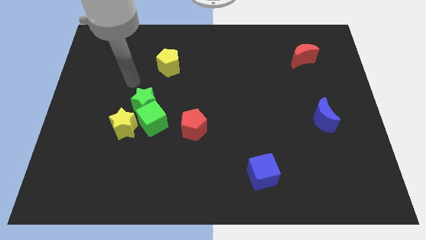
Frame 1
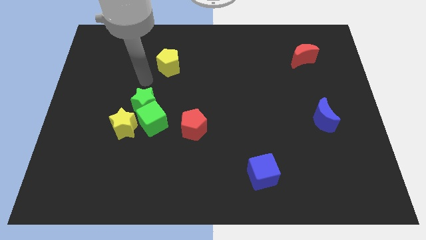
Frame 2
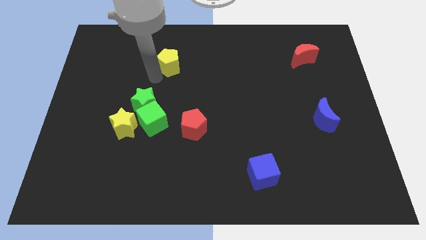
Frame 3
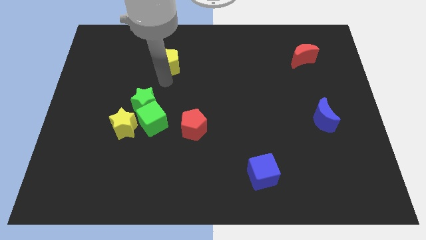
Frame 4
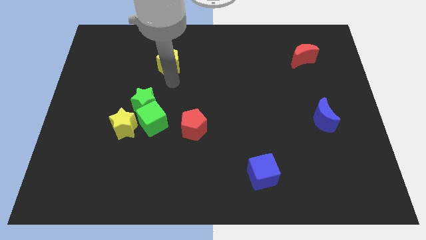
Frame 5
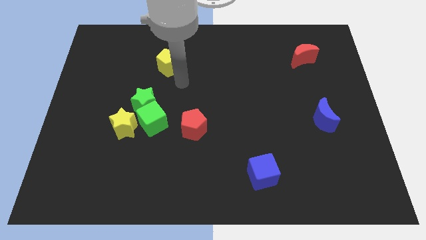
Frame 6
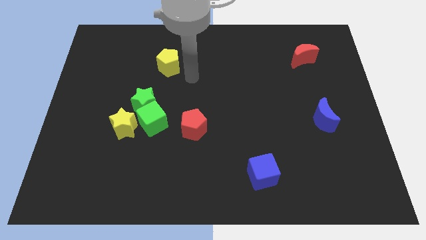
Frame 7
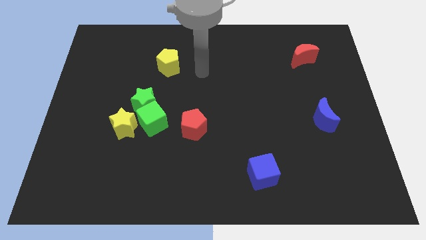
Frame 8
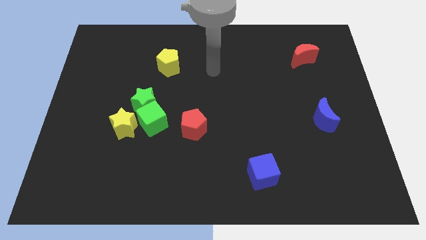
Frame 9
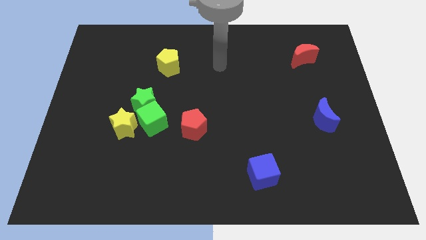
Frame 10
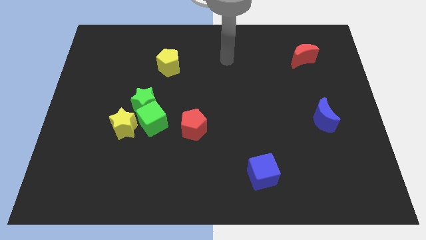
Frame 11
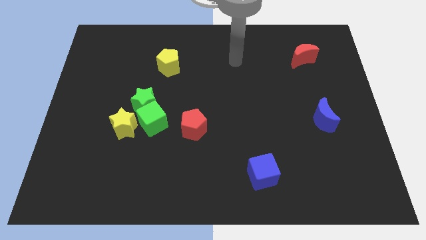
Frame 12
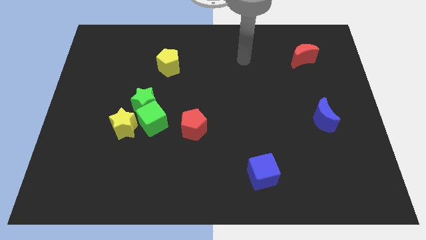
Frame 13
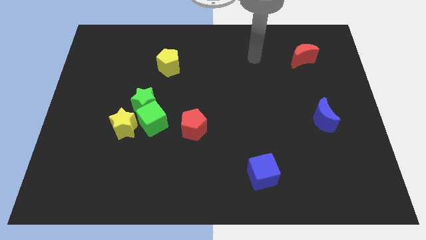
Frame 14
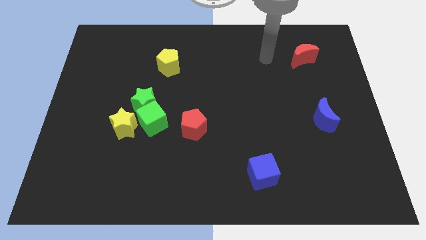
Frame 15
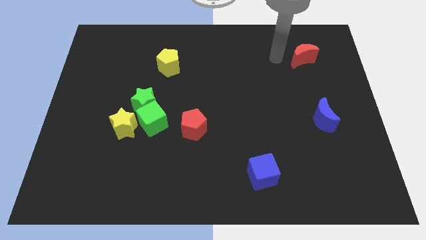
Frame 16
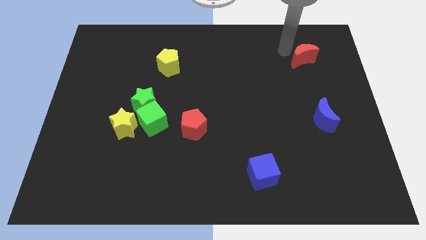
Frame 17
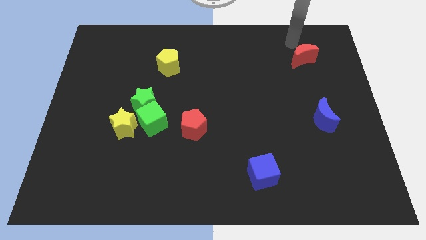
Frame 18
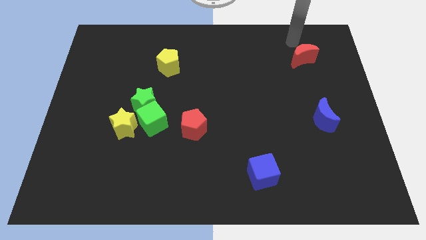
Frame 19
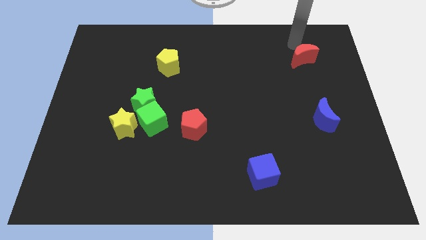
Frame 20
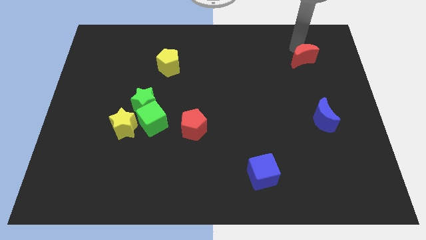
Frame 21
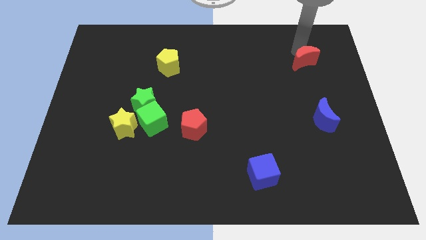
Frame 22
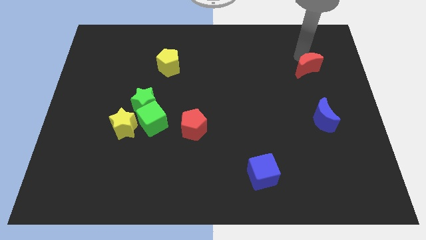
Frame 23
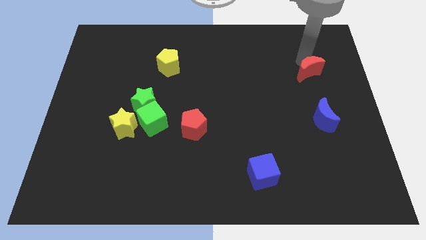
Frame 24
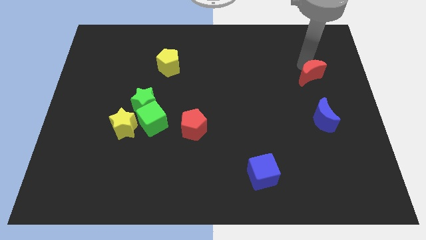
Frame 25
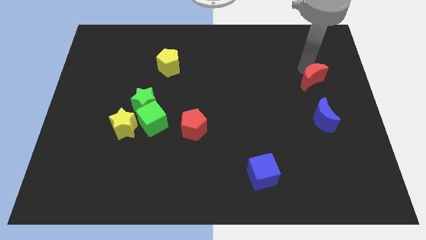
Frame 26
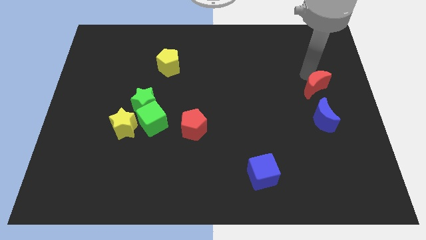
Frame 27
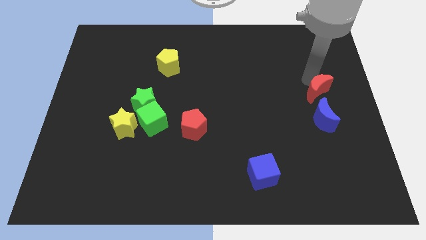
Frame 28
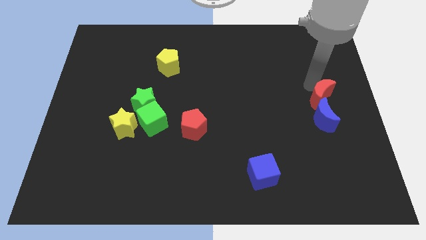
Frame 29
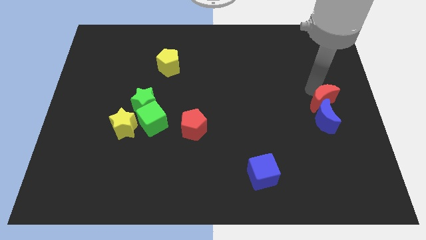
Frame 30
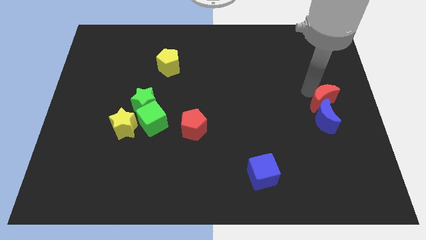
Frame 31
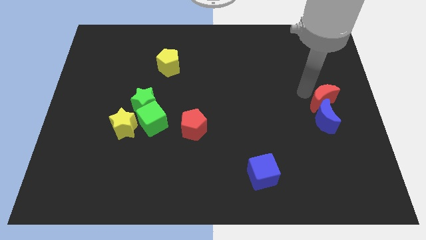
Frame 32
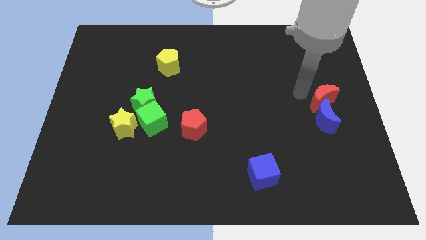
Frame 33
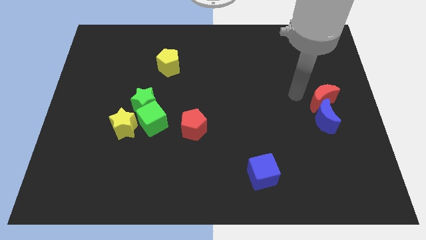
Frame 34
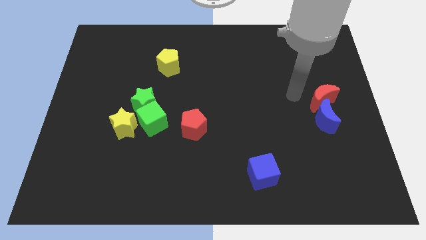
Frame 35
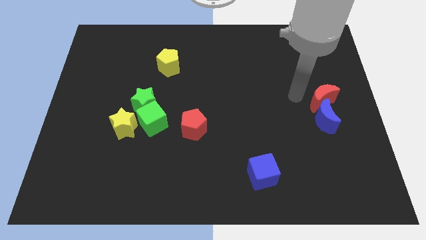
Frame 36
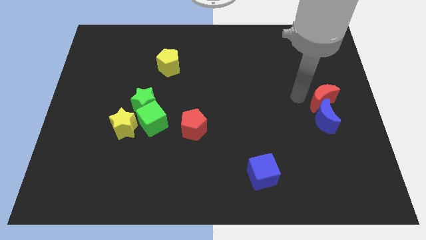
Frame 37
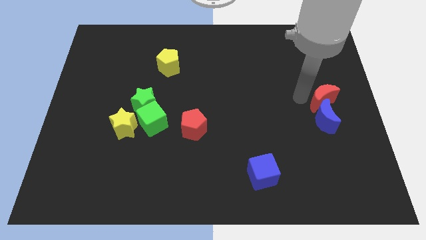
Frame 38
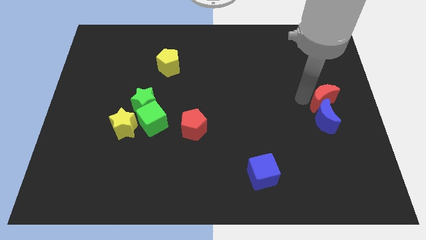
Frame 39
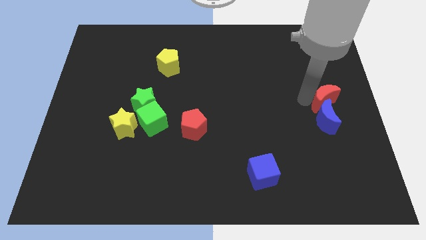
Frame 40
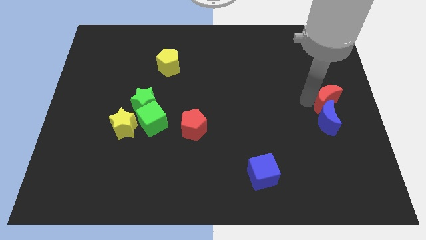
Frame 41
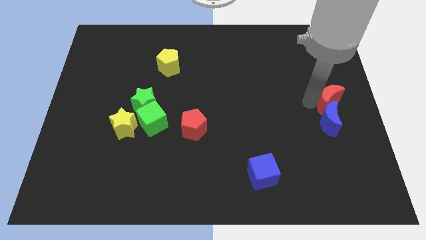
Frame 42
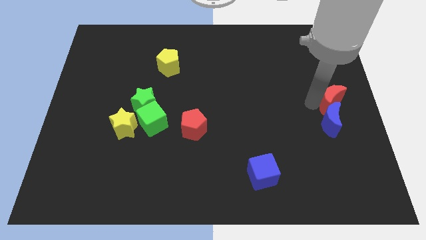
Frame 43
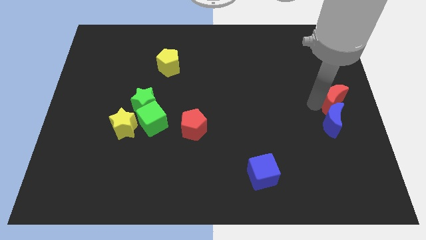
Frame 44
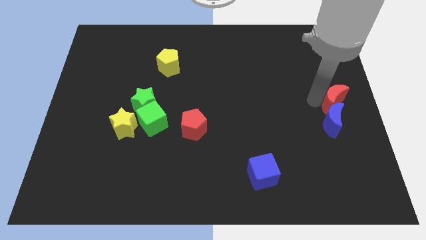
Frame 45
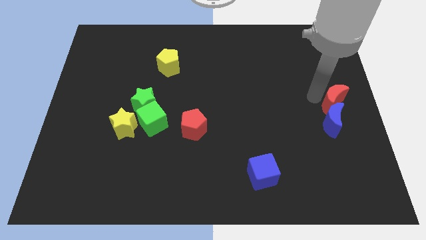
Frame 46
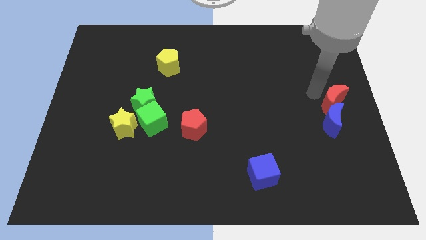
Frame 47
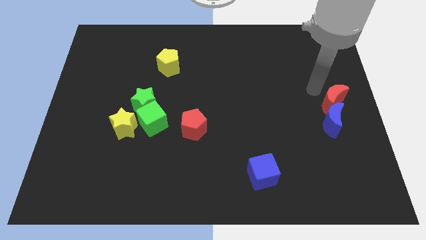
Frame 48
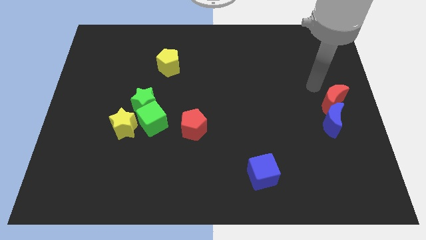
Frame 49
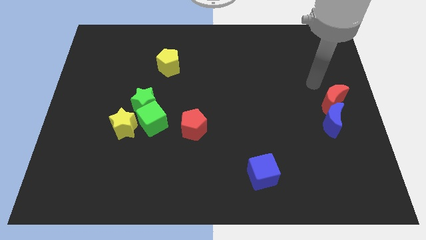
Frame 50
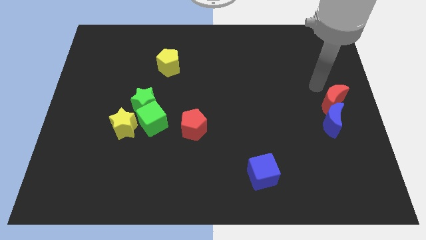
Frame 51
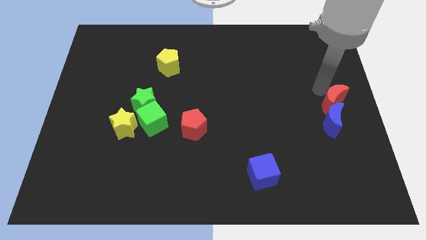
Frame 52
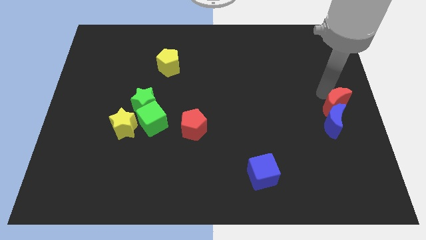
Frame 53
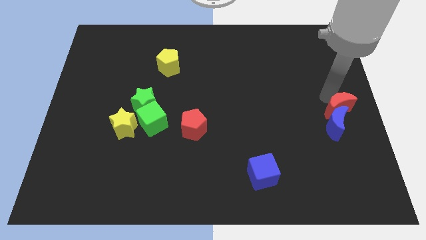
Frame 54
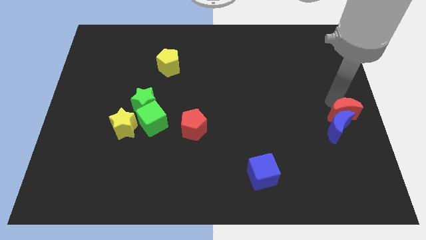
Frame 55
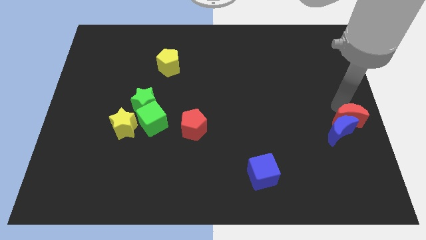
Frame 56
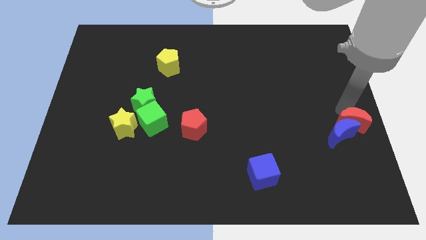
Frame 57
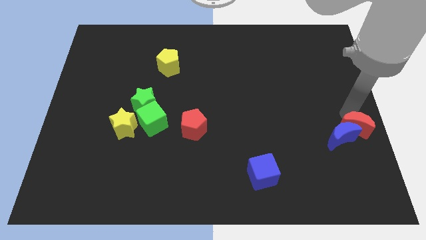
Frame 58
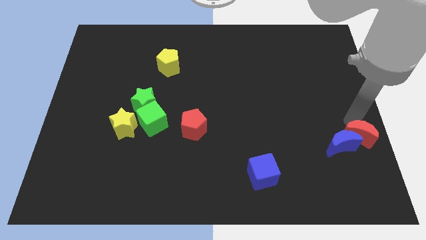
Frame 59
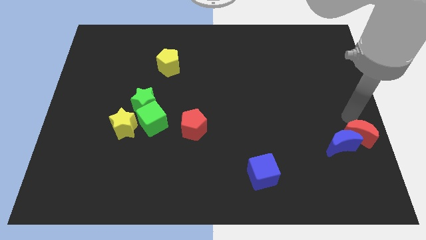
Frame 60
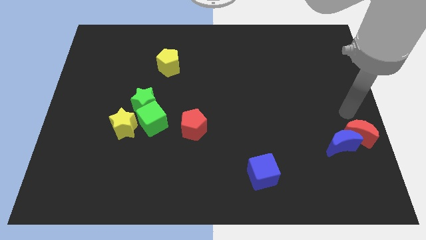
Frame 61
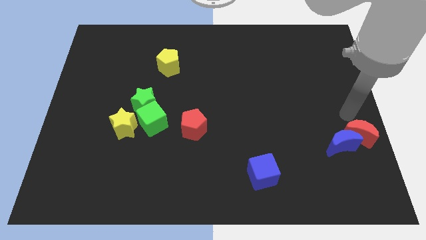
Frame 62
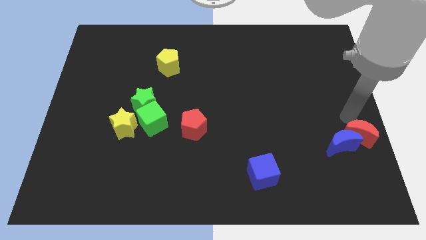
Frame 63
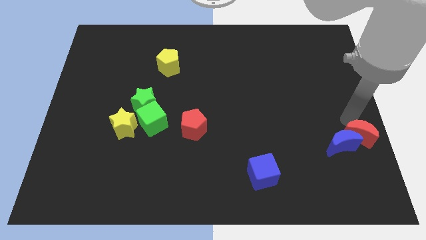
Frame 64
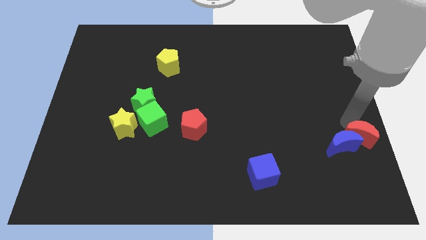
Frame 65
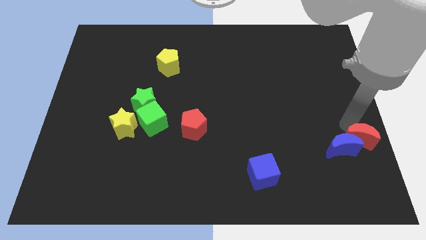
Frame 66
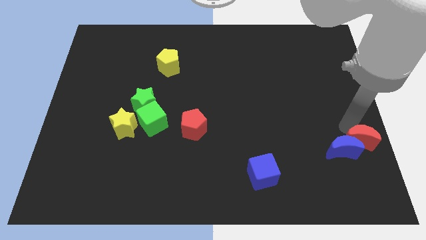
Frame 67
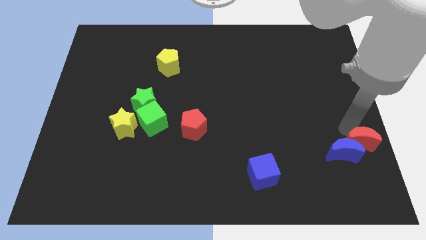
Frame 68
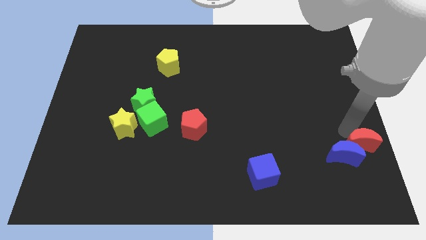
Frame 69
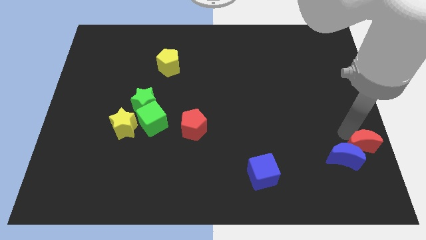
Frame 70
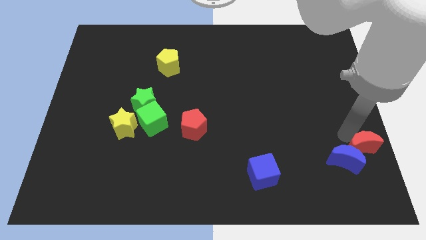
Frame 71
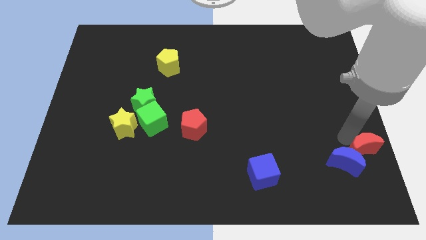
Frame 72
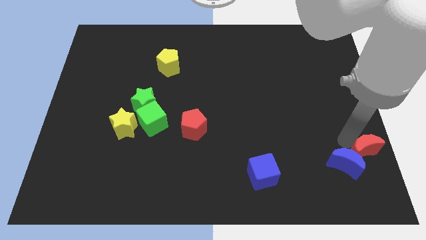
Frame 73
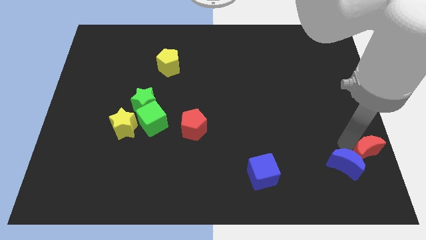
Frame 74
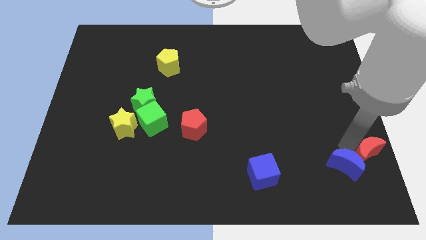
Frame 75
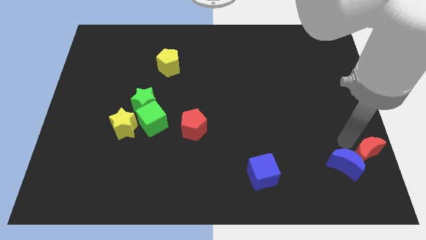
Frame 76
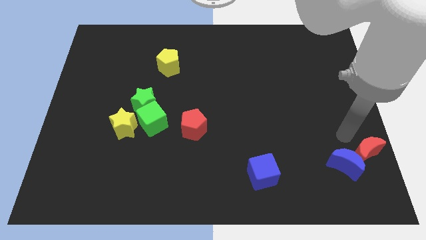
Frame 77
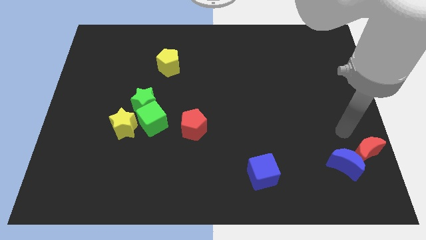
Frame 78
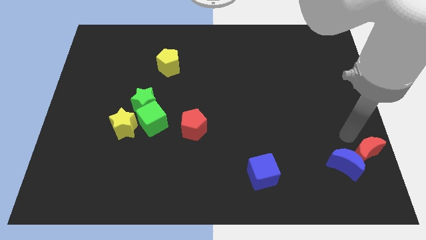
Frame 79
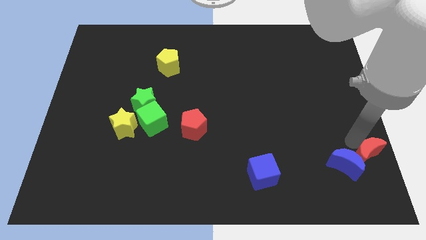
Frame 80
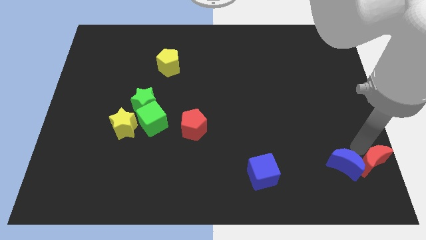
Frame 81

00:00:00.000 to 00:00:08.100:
push the red moon to the bottom right
